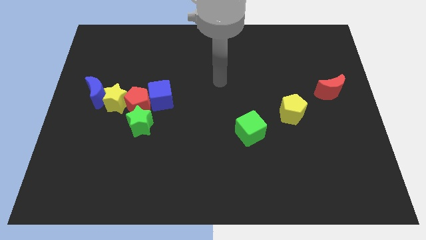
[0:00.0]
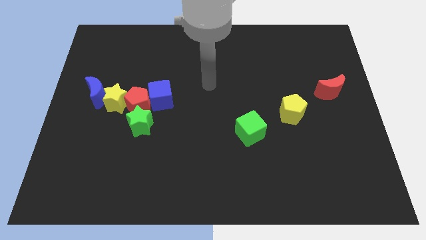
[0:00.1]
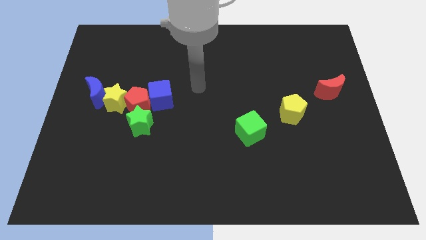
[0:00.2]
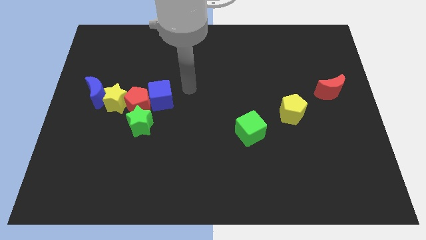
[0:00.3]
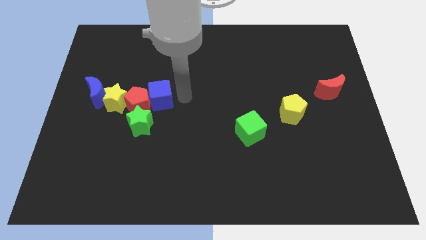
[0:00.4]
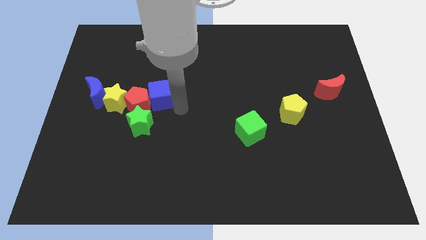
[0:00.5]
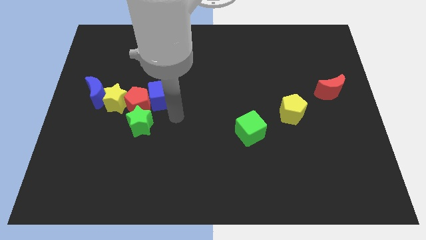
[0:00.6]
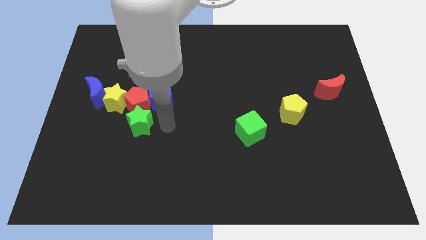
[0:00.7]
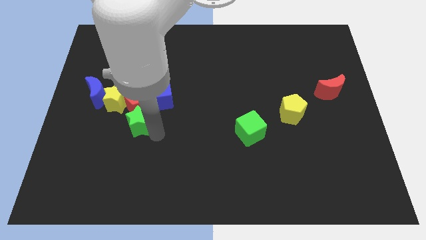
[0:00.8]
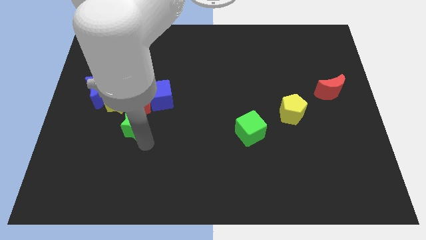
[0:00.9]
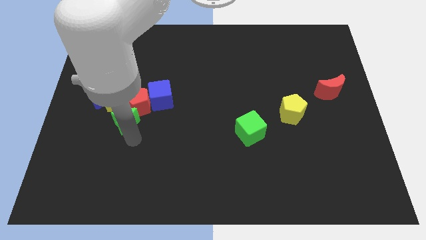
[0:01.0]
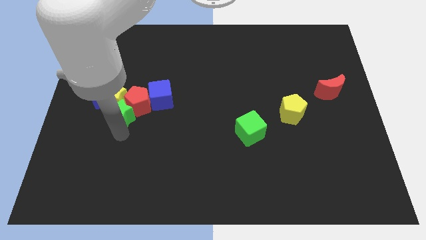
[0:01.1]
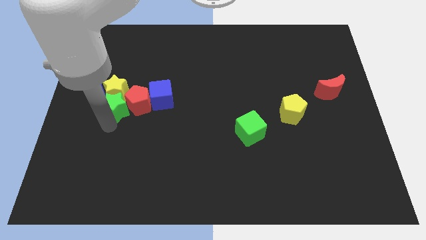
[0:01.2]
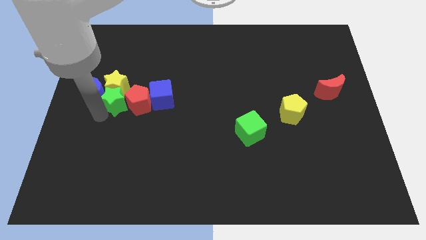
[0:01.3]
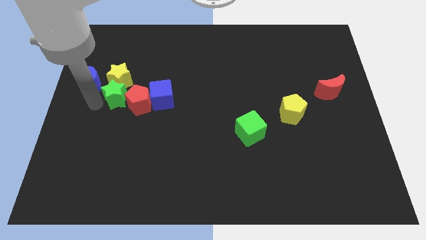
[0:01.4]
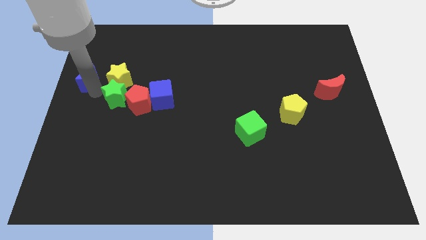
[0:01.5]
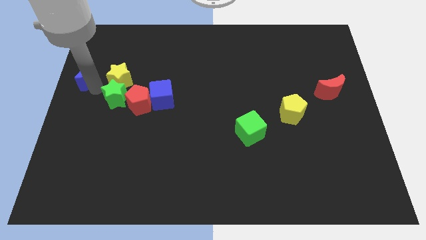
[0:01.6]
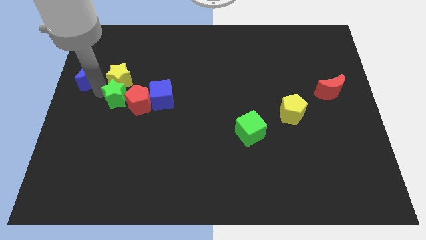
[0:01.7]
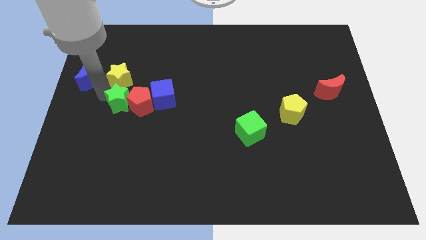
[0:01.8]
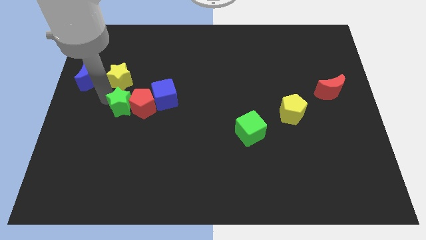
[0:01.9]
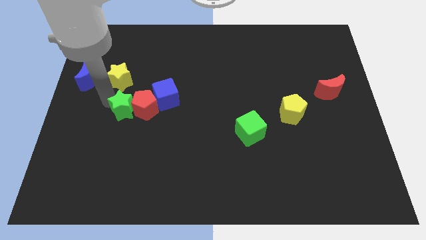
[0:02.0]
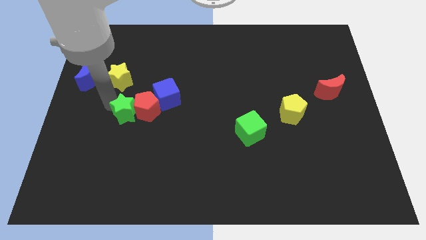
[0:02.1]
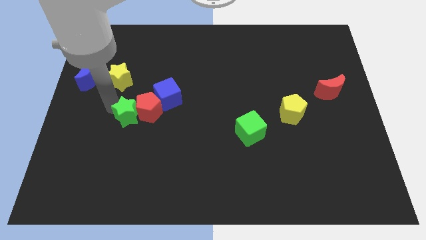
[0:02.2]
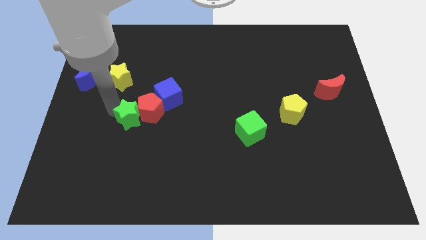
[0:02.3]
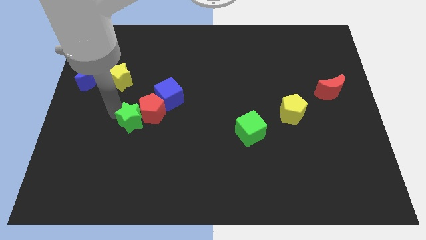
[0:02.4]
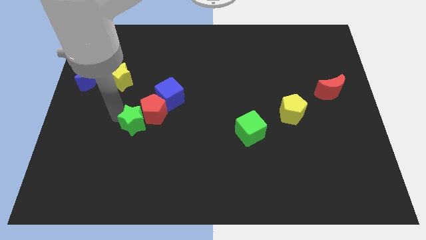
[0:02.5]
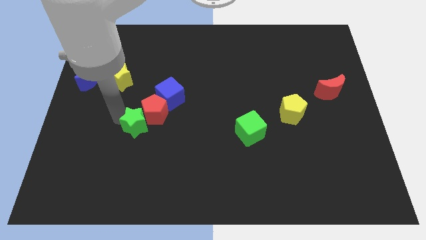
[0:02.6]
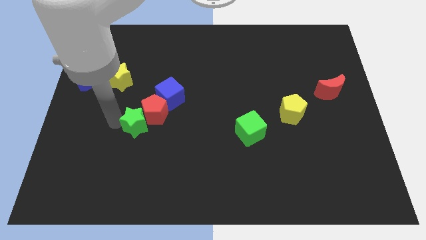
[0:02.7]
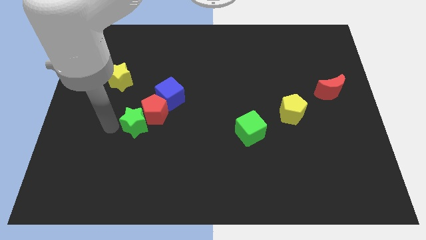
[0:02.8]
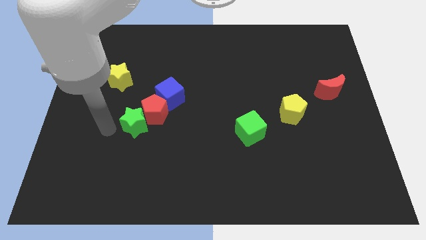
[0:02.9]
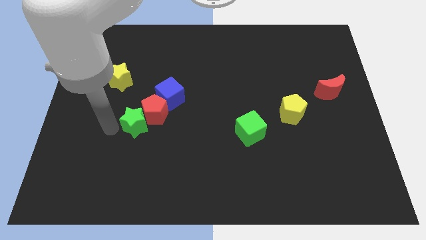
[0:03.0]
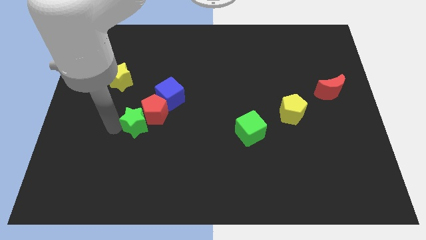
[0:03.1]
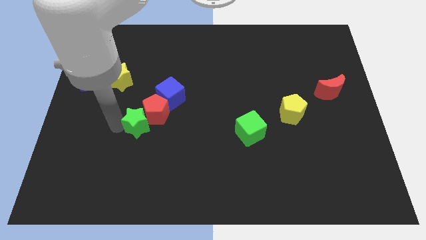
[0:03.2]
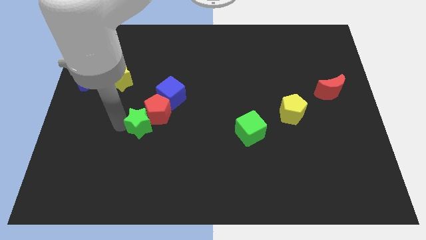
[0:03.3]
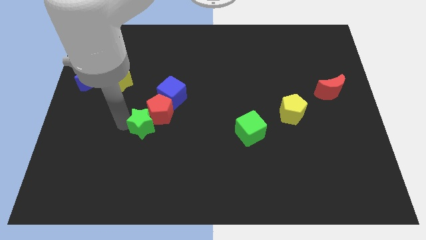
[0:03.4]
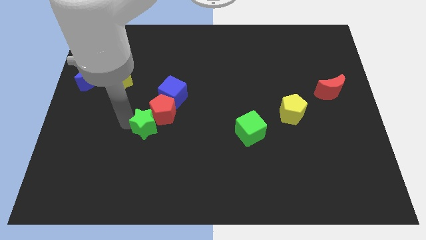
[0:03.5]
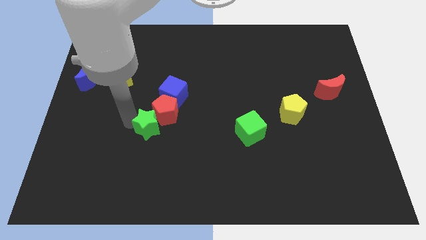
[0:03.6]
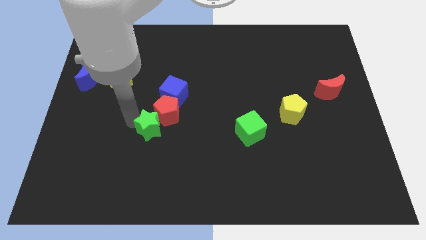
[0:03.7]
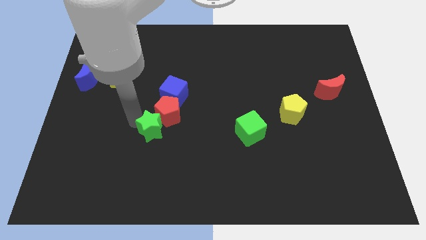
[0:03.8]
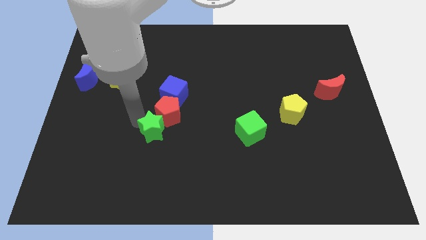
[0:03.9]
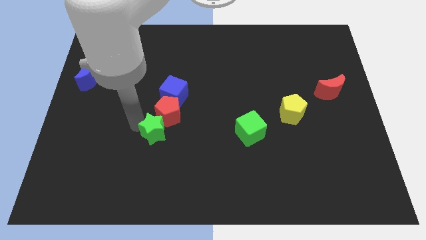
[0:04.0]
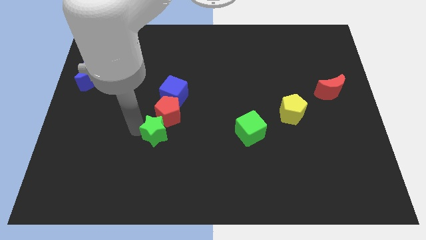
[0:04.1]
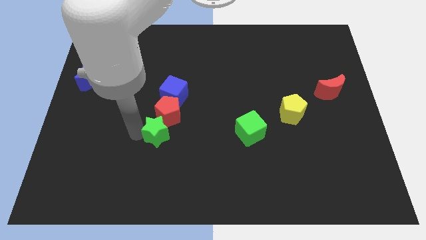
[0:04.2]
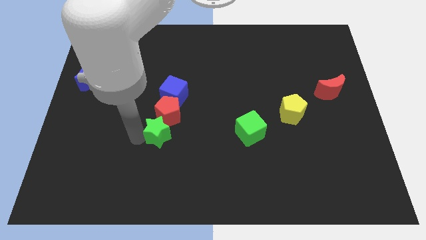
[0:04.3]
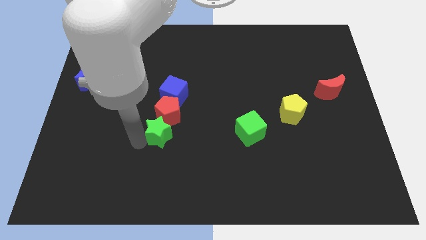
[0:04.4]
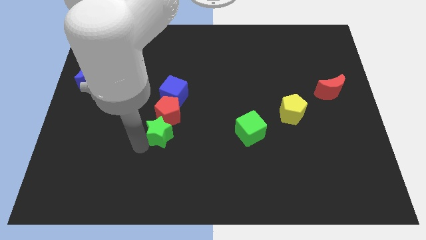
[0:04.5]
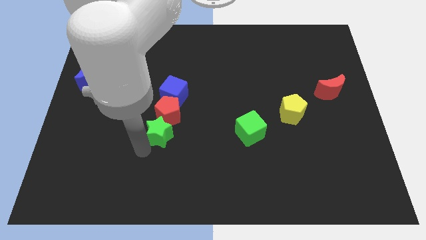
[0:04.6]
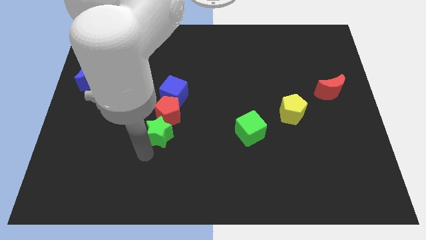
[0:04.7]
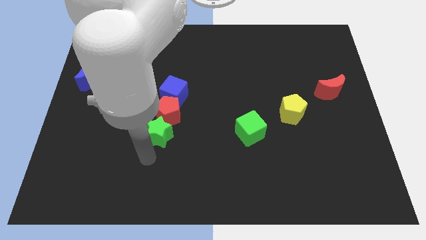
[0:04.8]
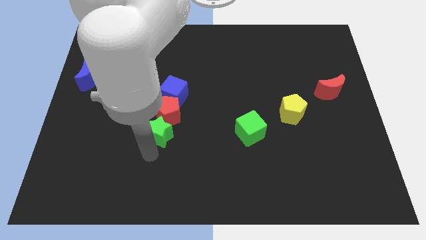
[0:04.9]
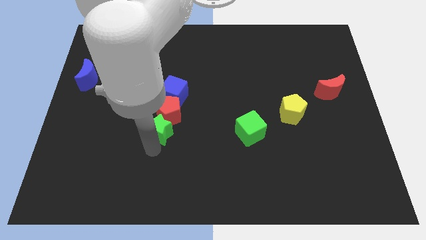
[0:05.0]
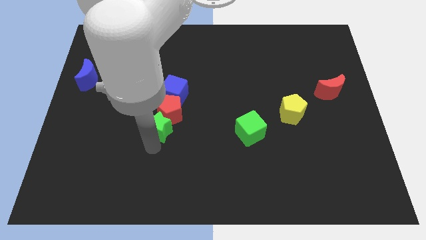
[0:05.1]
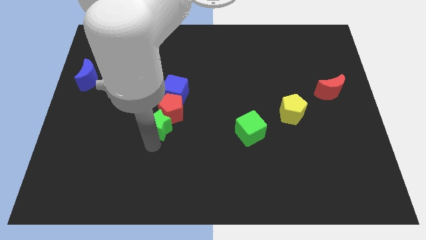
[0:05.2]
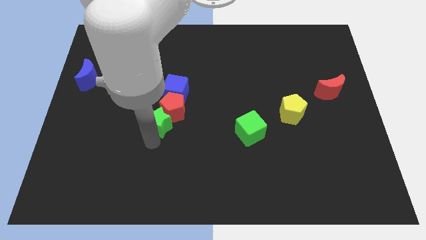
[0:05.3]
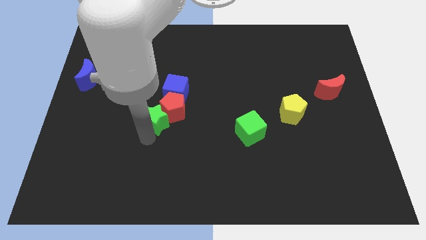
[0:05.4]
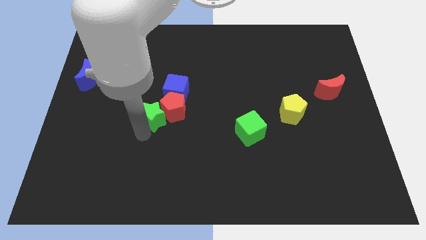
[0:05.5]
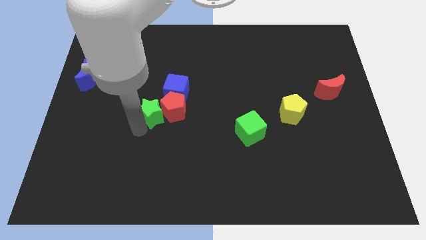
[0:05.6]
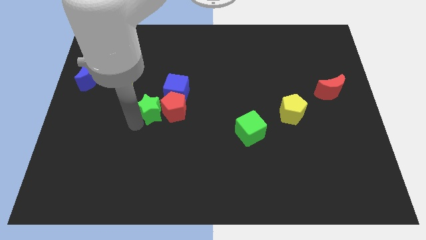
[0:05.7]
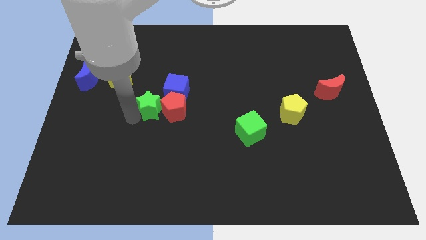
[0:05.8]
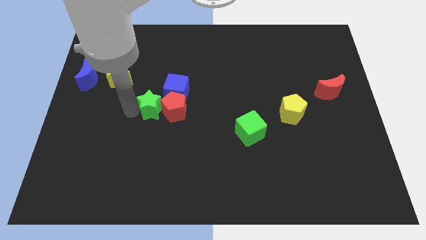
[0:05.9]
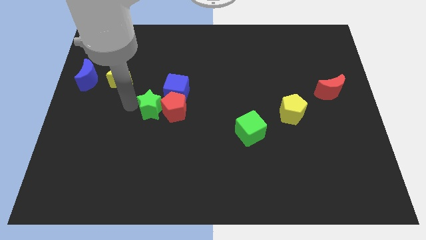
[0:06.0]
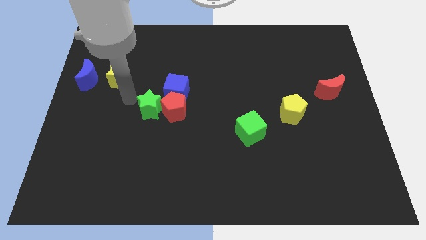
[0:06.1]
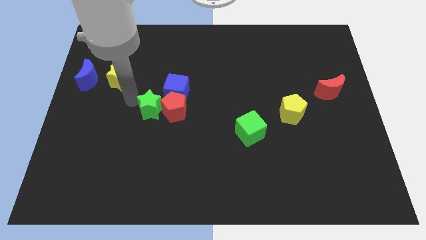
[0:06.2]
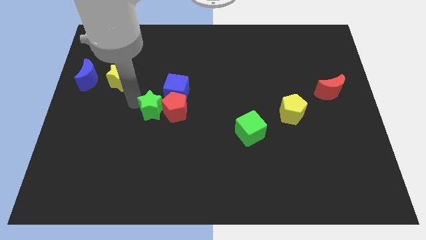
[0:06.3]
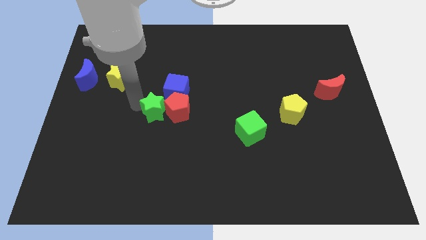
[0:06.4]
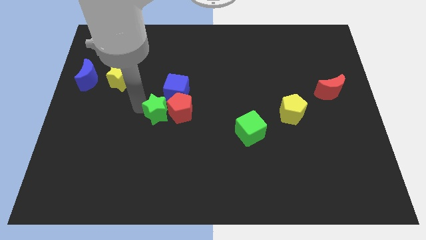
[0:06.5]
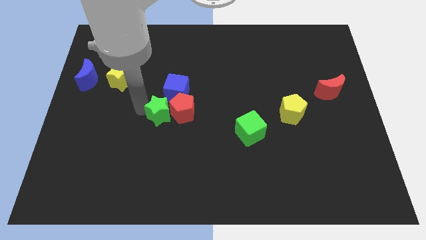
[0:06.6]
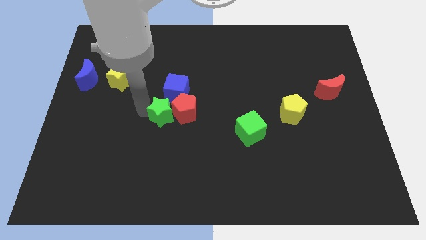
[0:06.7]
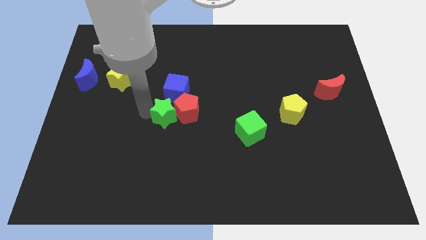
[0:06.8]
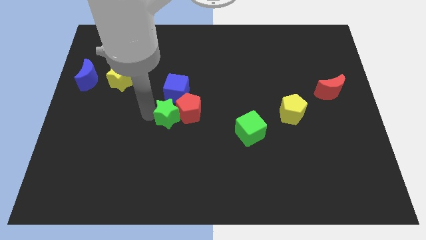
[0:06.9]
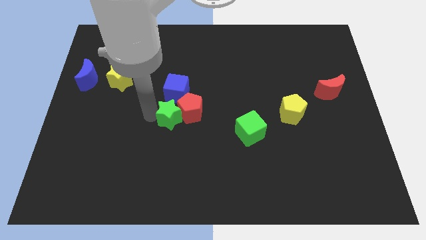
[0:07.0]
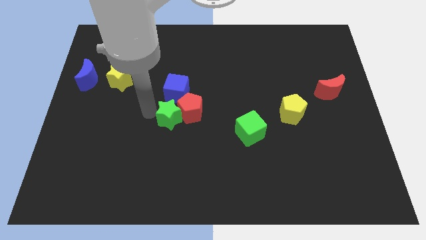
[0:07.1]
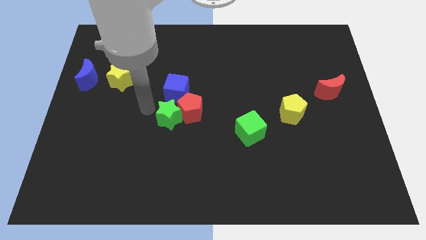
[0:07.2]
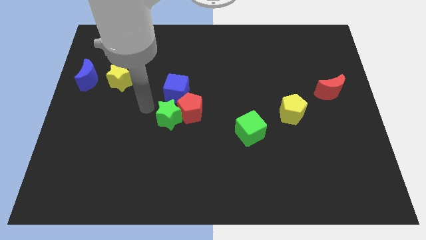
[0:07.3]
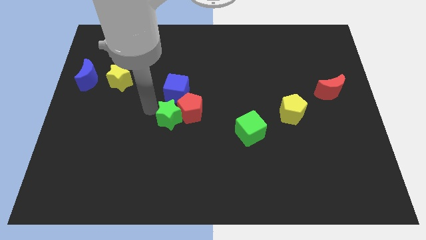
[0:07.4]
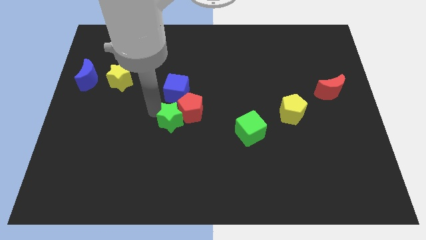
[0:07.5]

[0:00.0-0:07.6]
push the green star right a little bit
